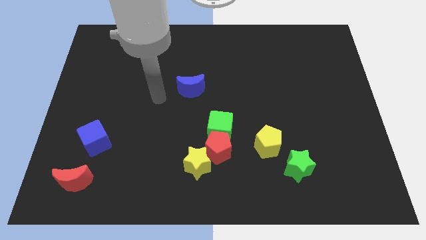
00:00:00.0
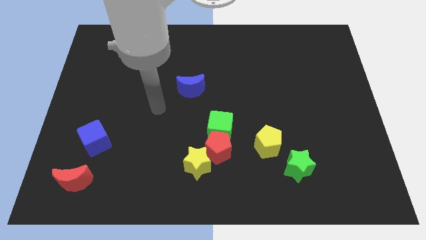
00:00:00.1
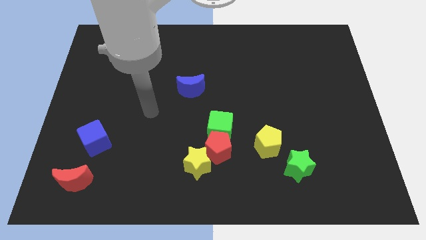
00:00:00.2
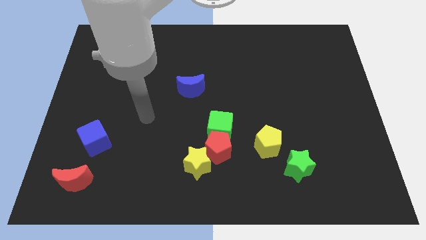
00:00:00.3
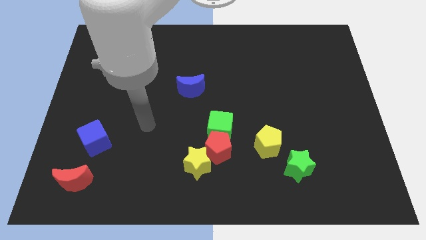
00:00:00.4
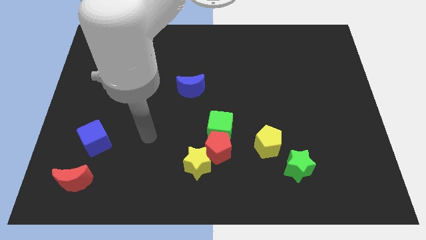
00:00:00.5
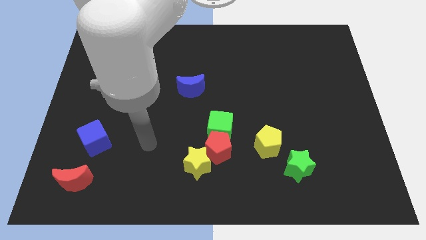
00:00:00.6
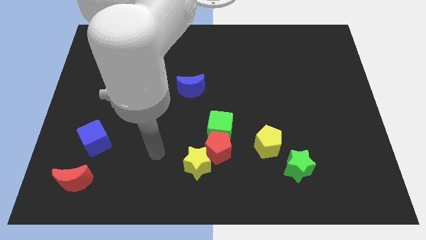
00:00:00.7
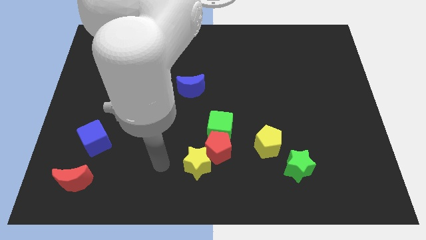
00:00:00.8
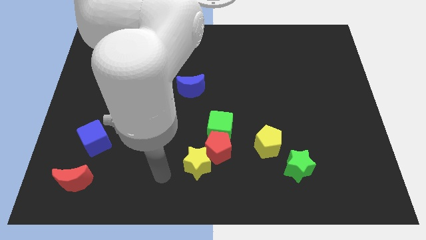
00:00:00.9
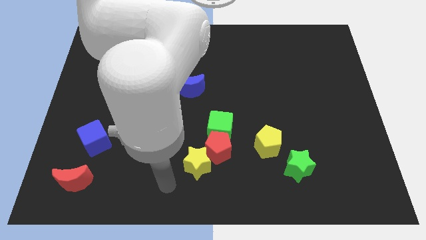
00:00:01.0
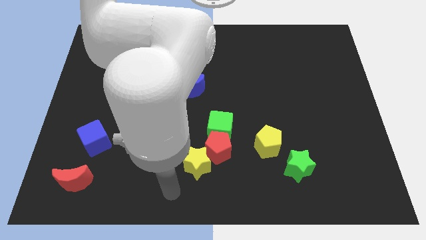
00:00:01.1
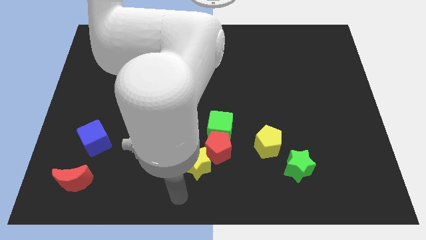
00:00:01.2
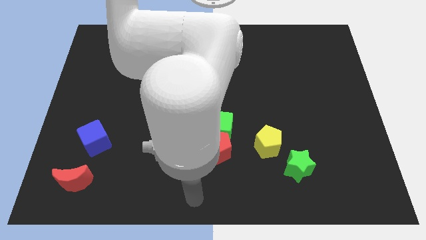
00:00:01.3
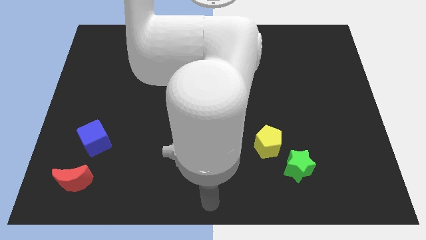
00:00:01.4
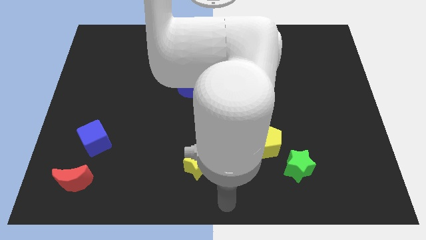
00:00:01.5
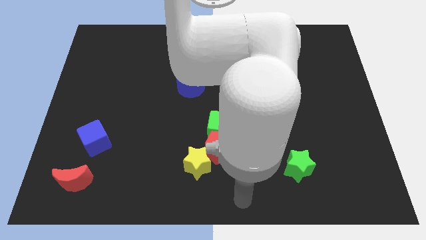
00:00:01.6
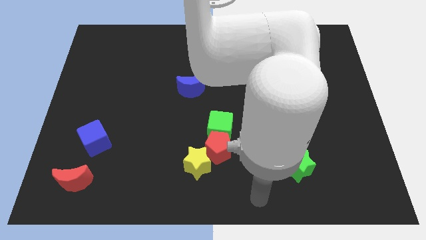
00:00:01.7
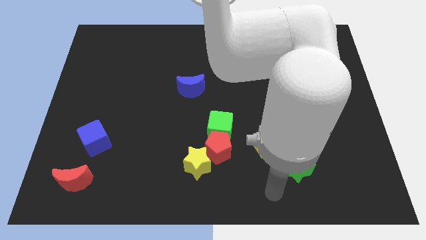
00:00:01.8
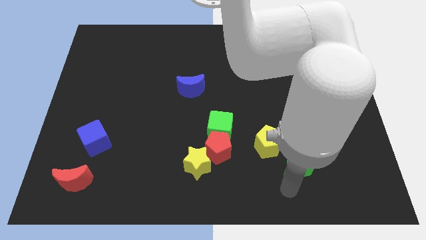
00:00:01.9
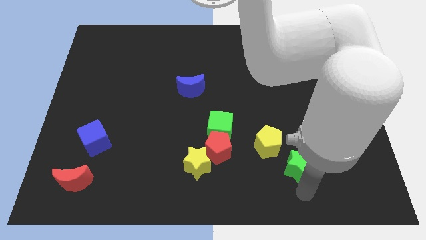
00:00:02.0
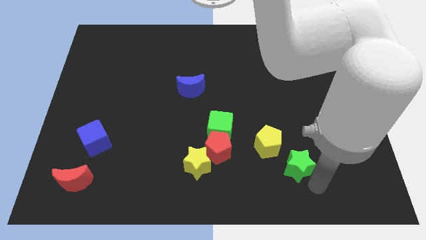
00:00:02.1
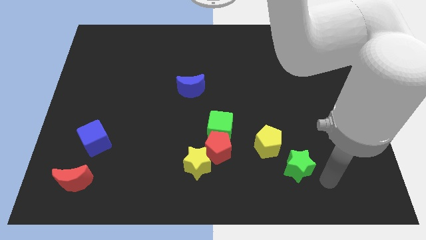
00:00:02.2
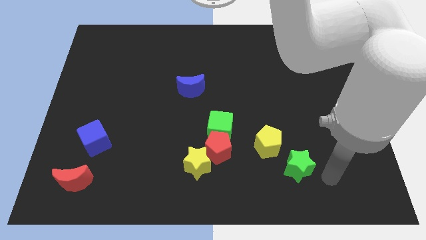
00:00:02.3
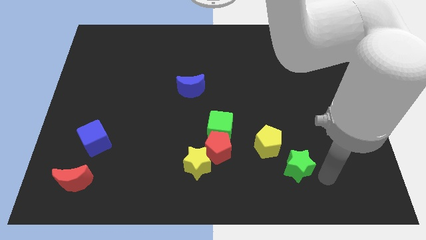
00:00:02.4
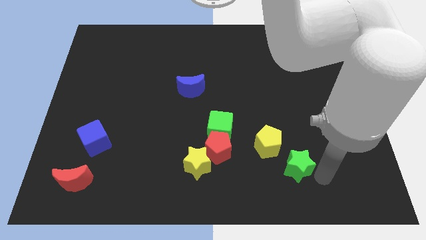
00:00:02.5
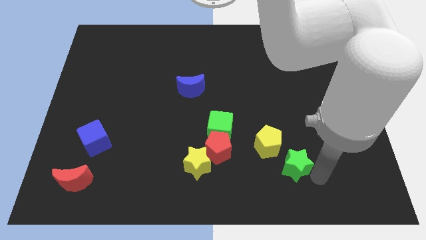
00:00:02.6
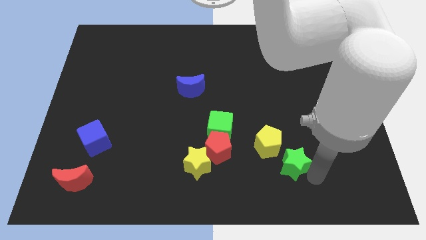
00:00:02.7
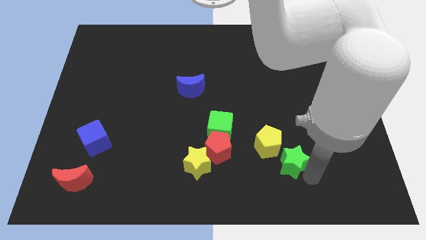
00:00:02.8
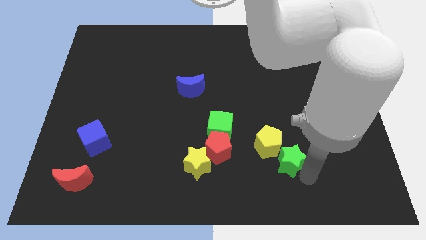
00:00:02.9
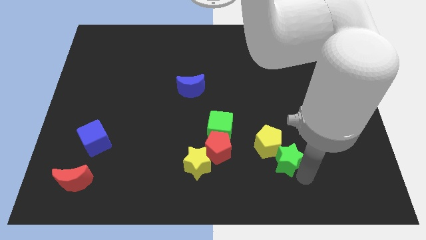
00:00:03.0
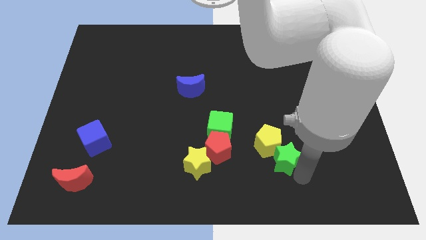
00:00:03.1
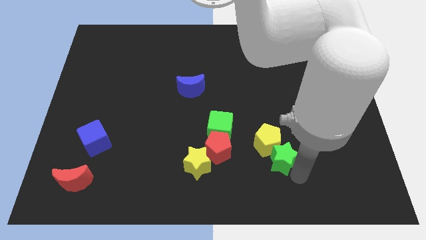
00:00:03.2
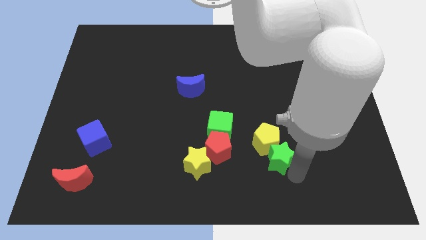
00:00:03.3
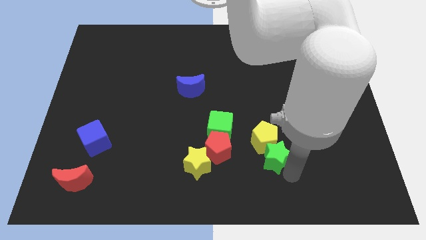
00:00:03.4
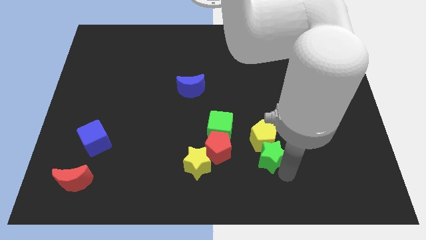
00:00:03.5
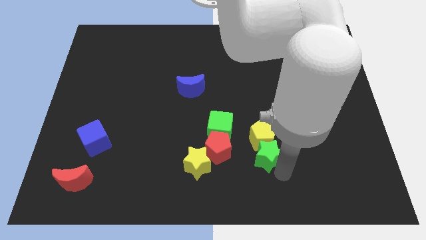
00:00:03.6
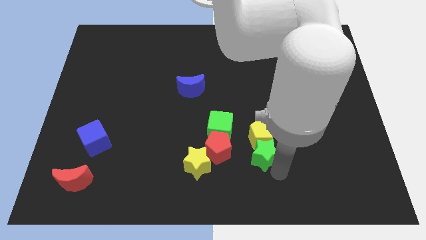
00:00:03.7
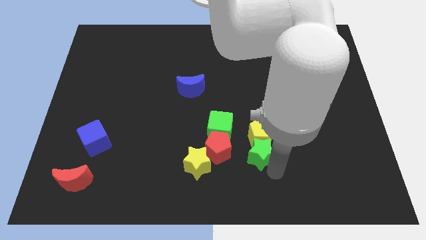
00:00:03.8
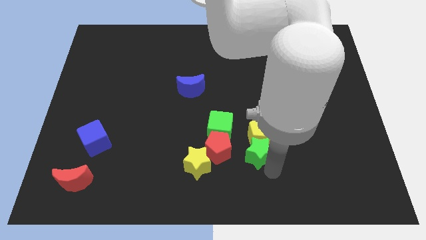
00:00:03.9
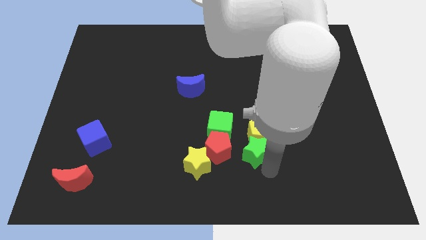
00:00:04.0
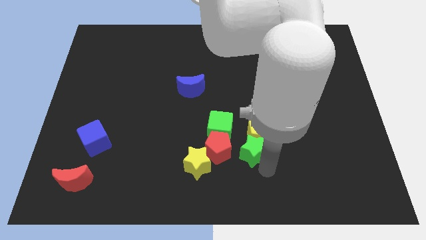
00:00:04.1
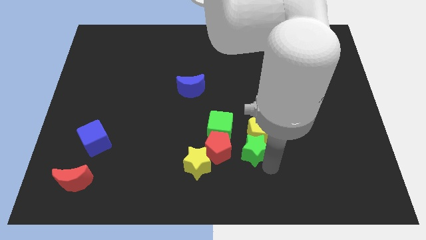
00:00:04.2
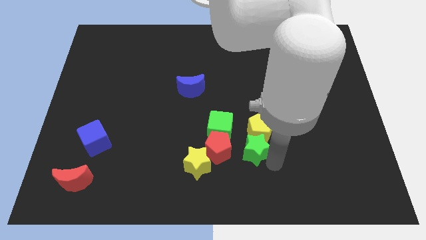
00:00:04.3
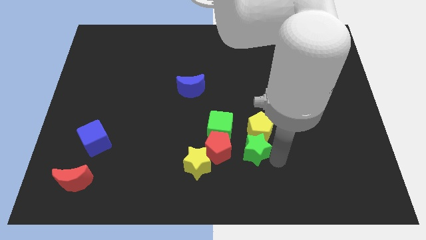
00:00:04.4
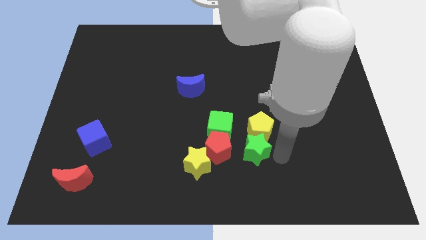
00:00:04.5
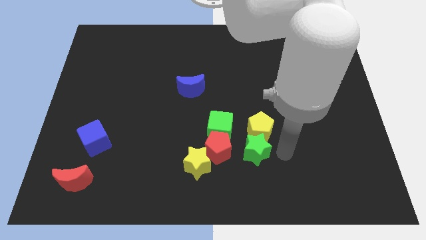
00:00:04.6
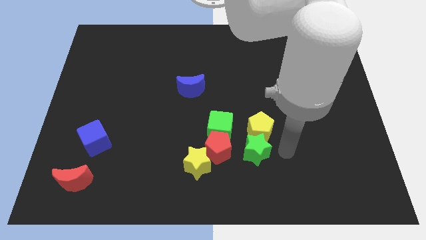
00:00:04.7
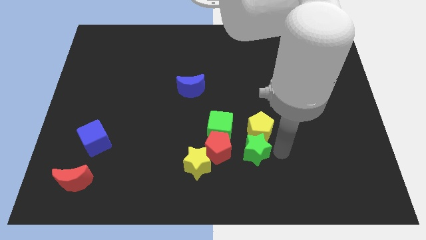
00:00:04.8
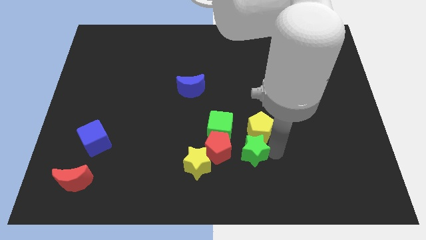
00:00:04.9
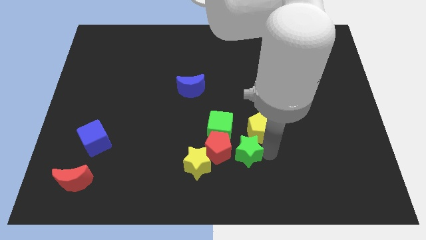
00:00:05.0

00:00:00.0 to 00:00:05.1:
move the green star towards the red pentagon

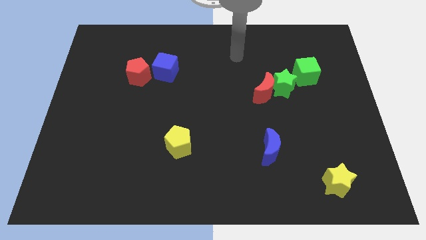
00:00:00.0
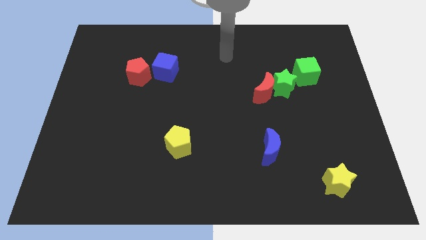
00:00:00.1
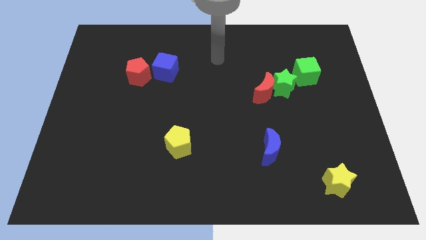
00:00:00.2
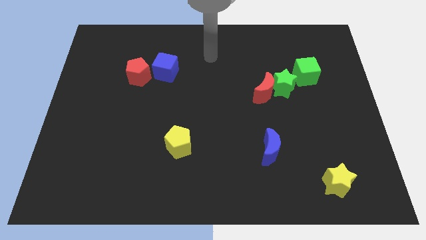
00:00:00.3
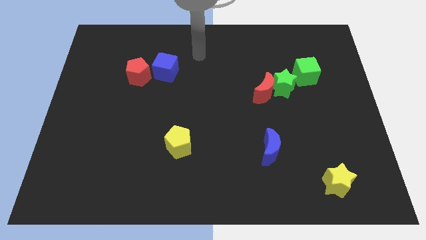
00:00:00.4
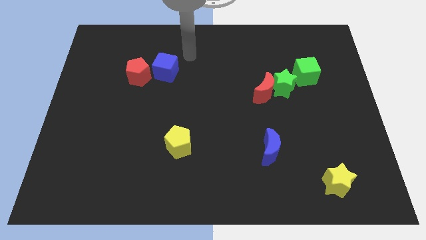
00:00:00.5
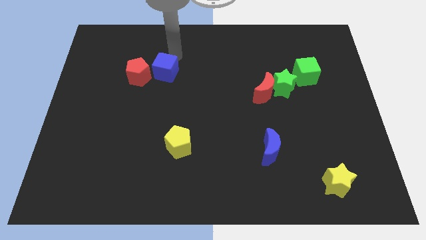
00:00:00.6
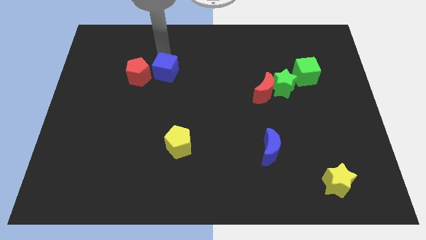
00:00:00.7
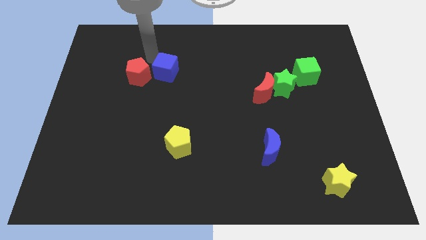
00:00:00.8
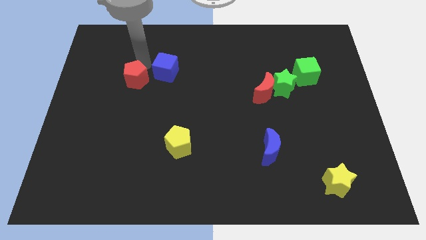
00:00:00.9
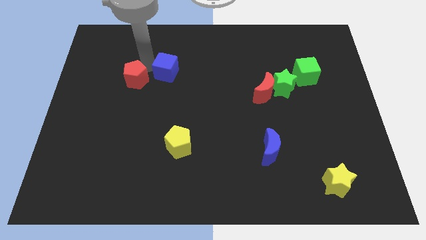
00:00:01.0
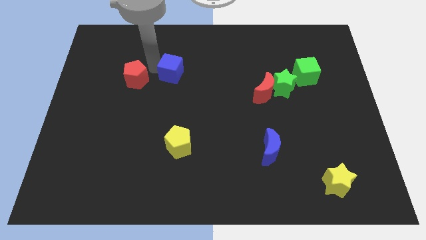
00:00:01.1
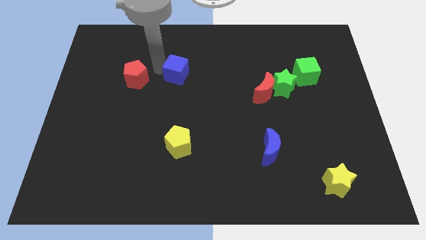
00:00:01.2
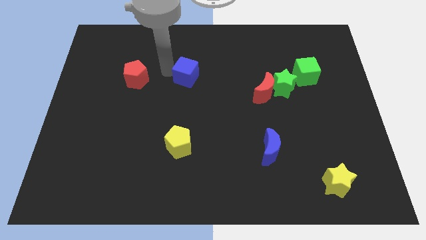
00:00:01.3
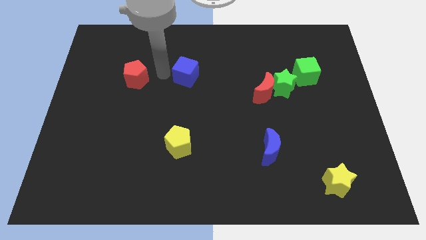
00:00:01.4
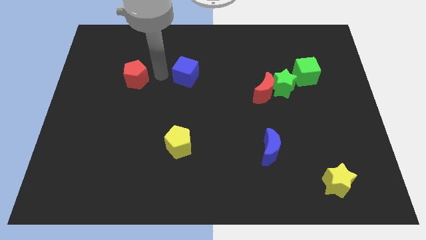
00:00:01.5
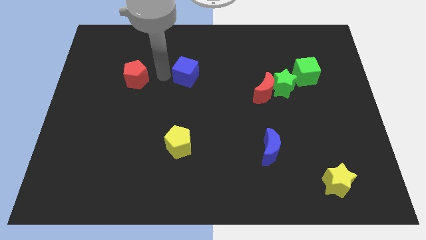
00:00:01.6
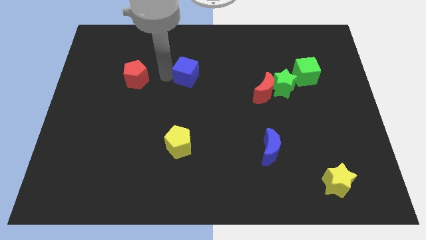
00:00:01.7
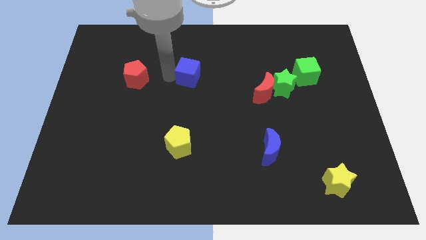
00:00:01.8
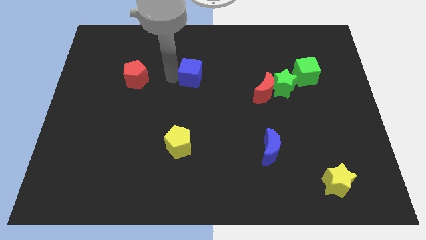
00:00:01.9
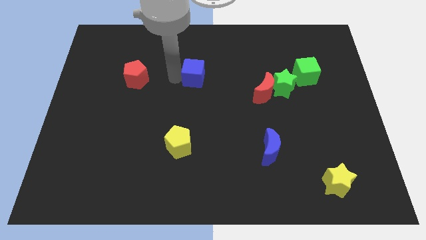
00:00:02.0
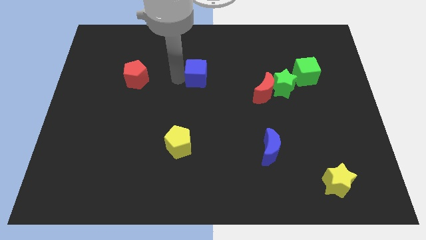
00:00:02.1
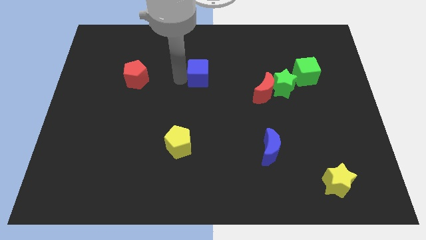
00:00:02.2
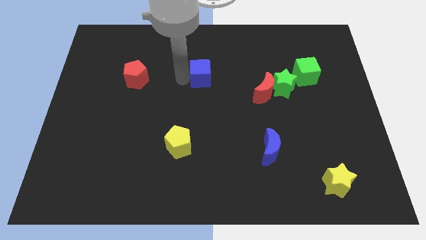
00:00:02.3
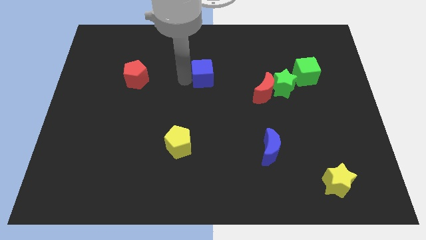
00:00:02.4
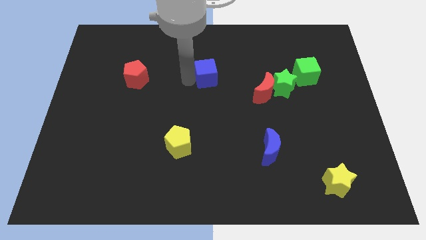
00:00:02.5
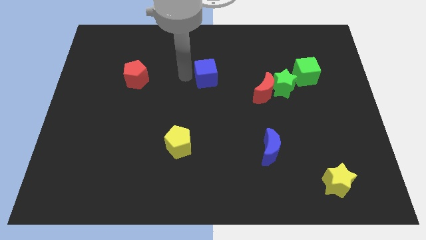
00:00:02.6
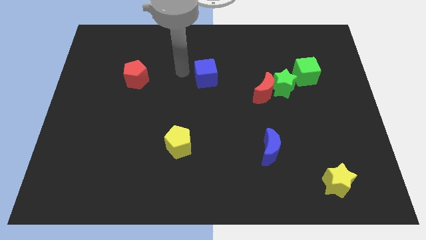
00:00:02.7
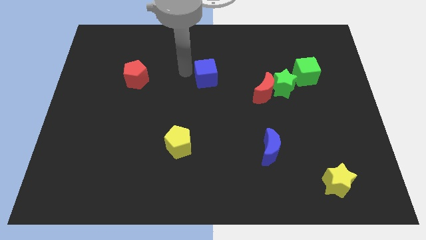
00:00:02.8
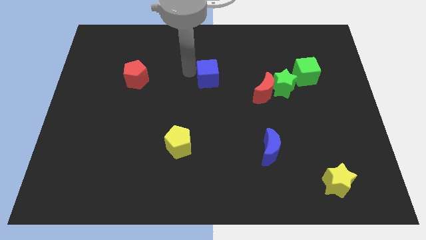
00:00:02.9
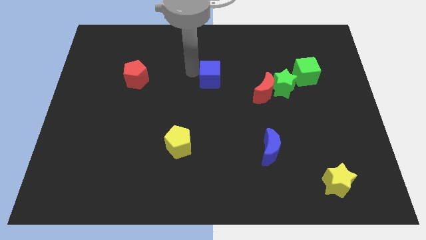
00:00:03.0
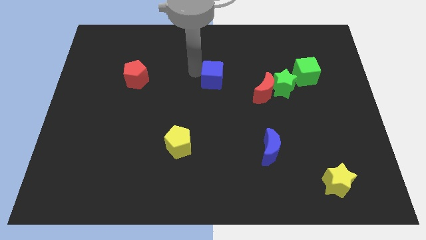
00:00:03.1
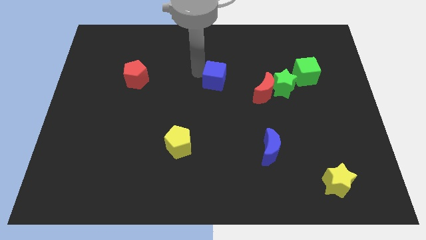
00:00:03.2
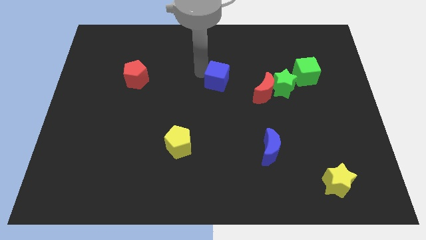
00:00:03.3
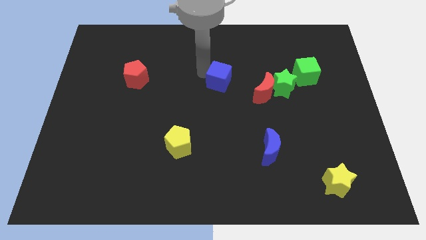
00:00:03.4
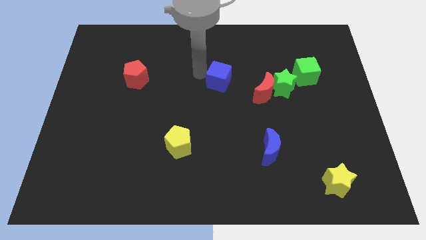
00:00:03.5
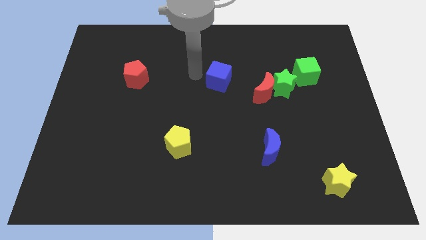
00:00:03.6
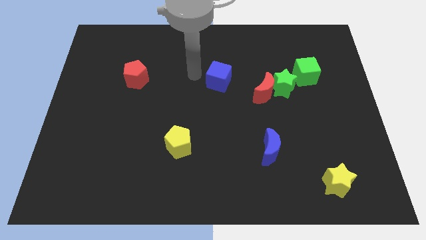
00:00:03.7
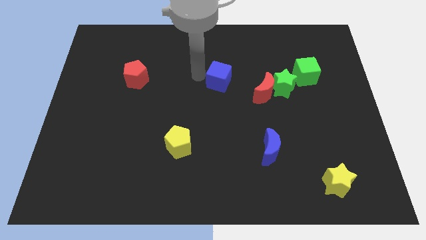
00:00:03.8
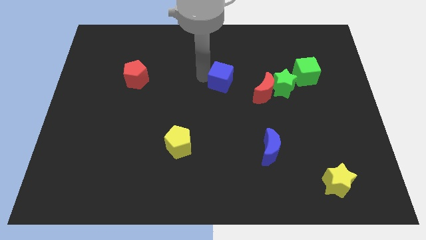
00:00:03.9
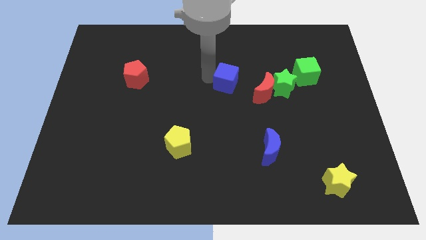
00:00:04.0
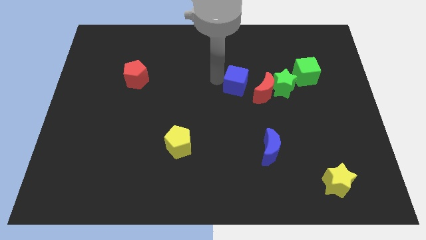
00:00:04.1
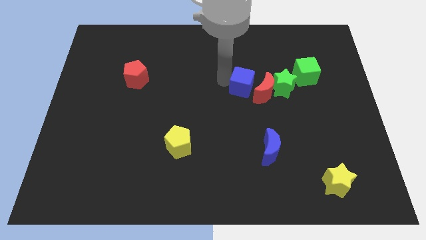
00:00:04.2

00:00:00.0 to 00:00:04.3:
slide the blue cube close to the red moon
